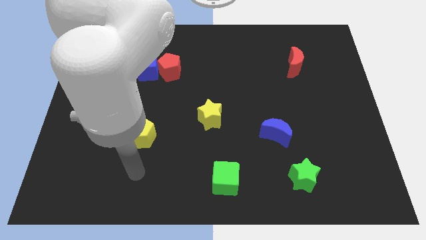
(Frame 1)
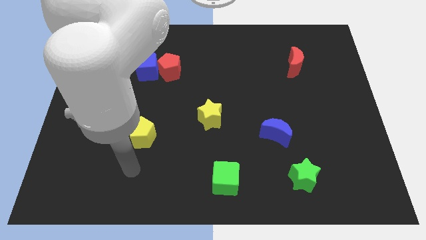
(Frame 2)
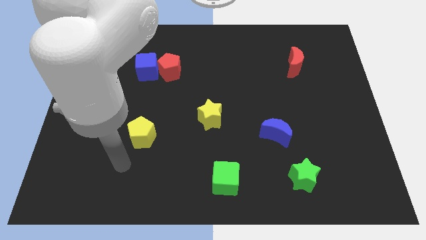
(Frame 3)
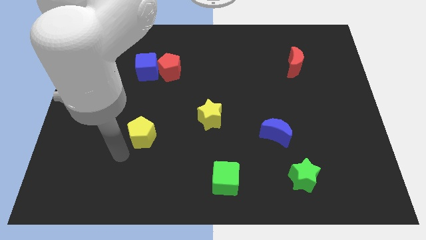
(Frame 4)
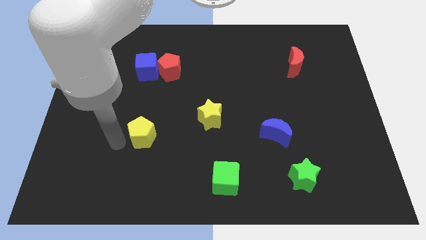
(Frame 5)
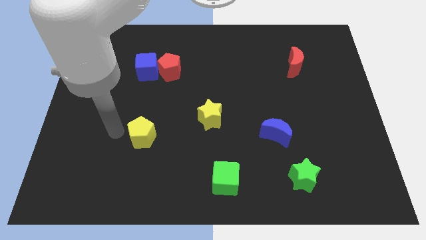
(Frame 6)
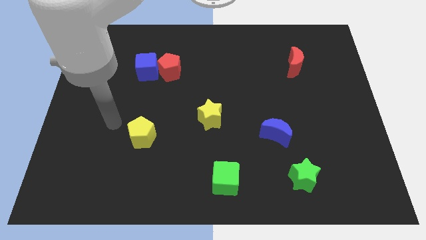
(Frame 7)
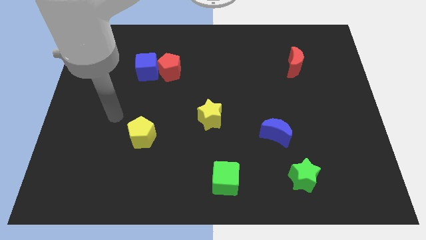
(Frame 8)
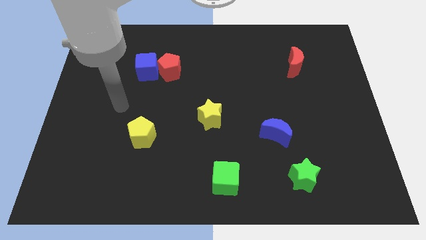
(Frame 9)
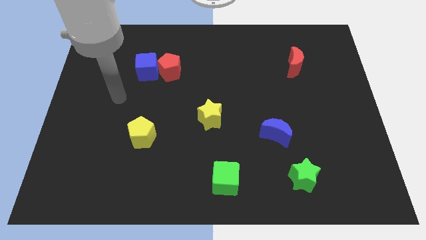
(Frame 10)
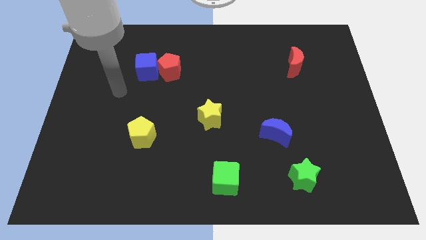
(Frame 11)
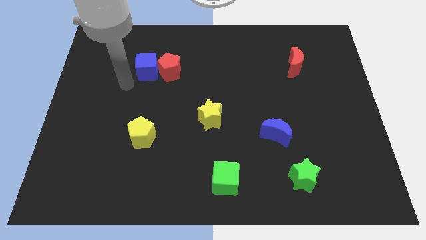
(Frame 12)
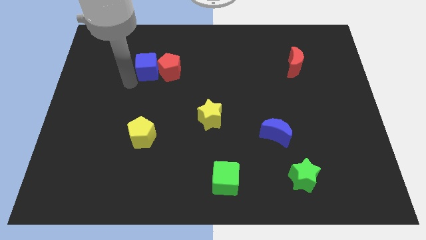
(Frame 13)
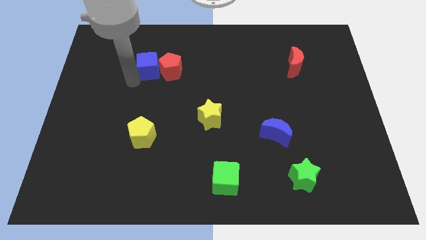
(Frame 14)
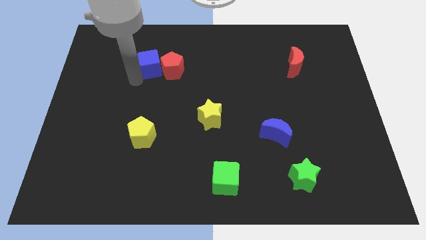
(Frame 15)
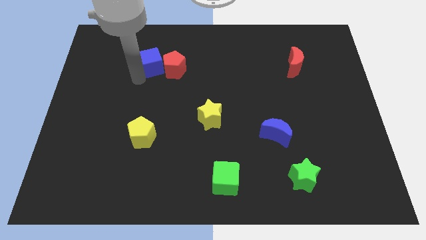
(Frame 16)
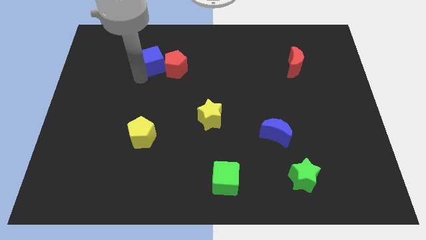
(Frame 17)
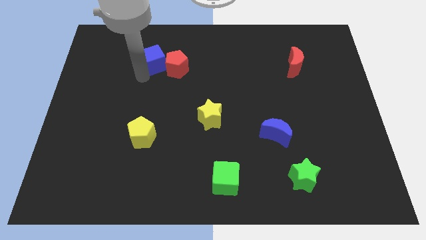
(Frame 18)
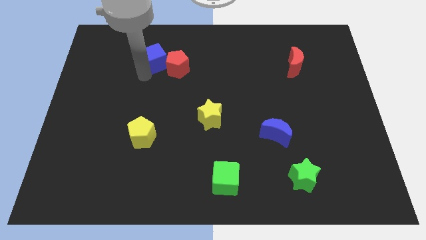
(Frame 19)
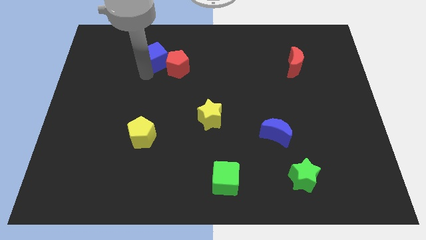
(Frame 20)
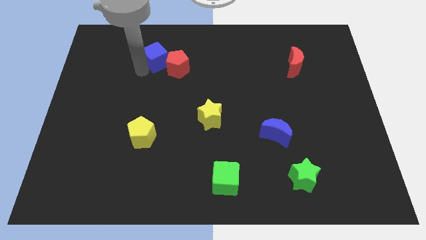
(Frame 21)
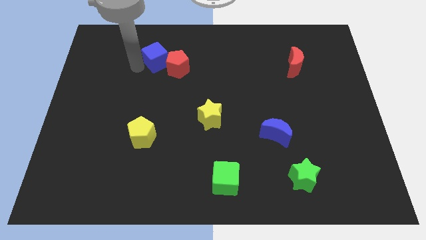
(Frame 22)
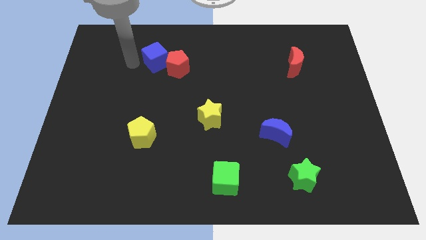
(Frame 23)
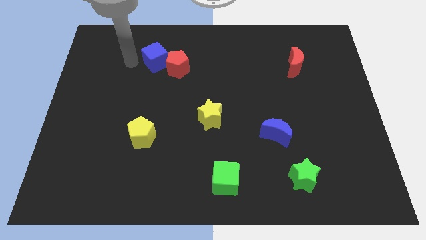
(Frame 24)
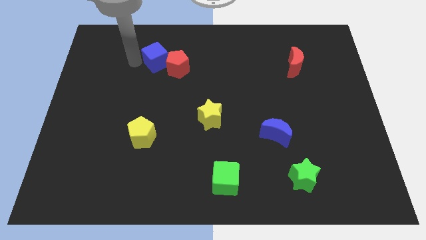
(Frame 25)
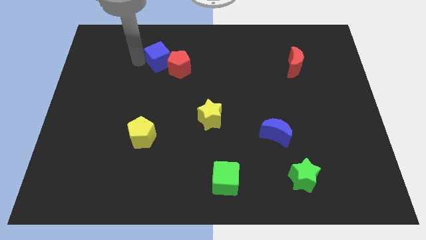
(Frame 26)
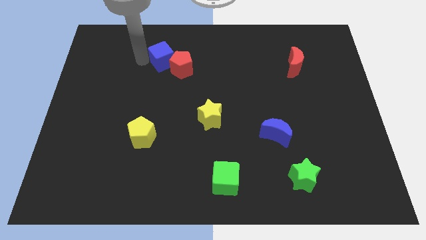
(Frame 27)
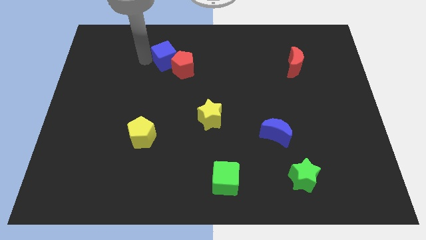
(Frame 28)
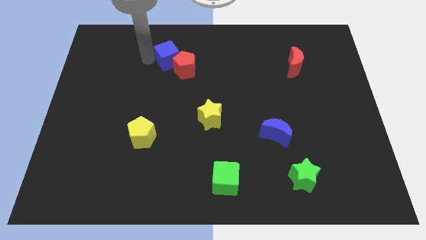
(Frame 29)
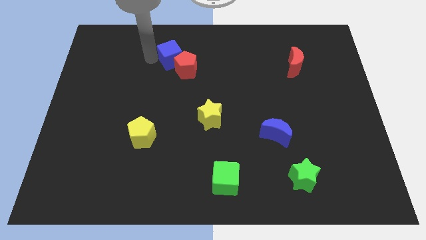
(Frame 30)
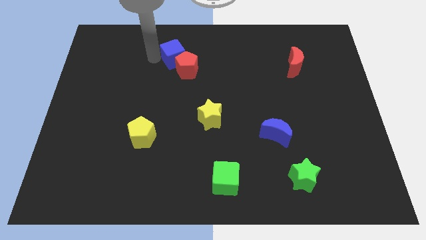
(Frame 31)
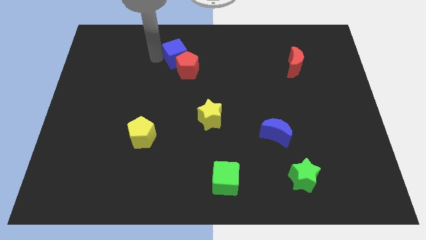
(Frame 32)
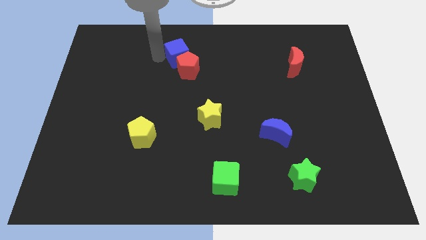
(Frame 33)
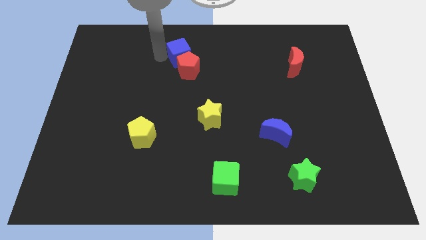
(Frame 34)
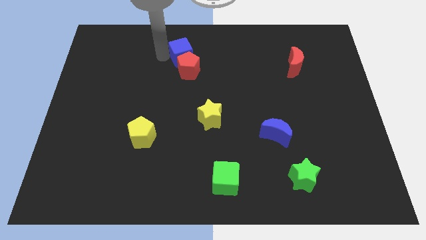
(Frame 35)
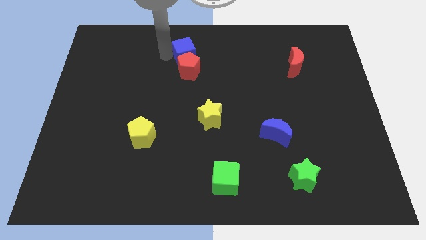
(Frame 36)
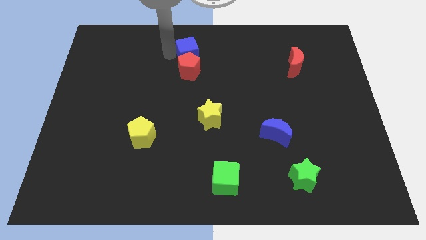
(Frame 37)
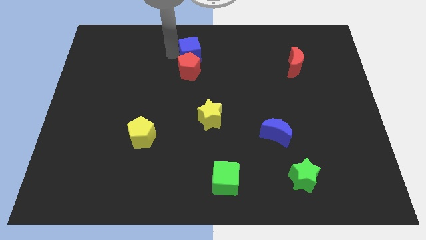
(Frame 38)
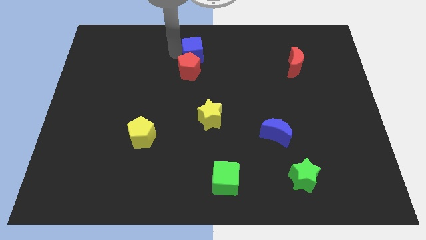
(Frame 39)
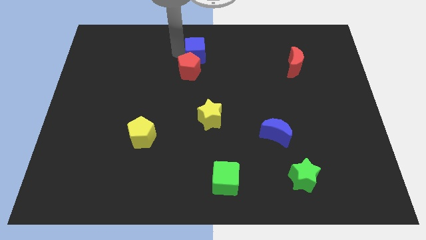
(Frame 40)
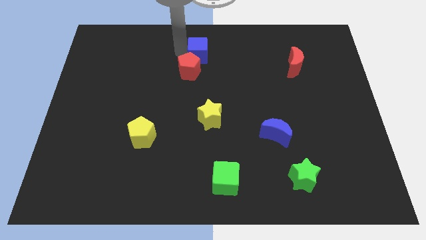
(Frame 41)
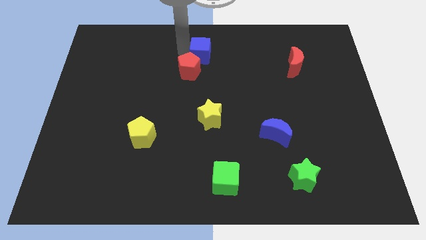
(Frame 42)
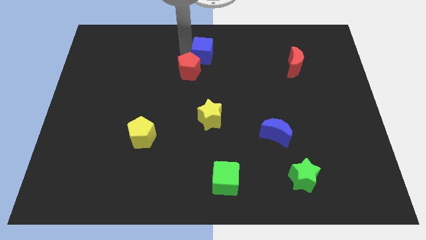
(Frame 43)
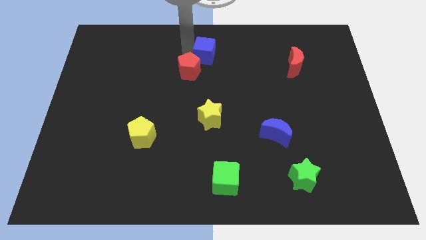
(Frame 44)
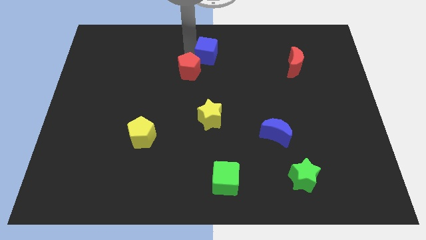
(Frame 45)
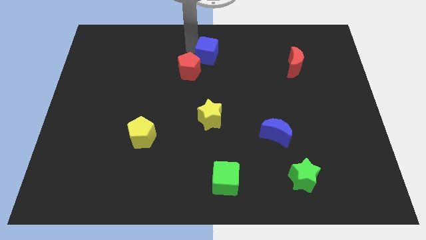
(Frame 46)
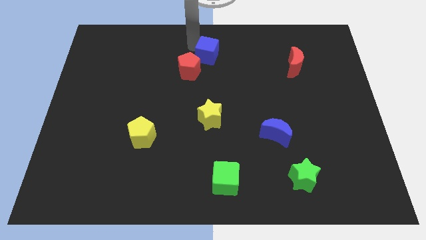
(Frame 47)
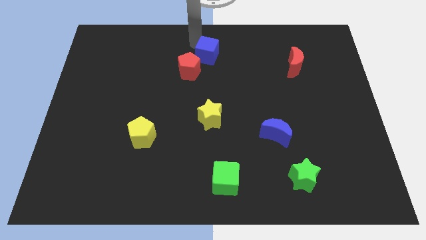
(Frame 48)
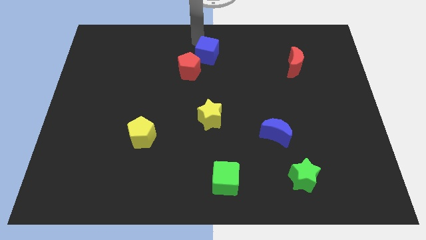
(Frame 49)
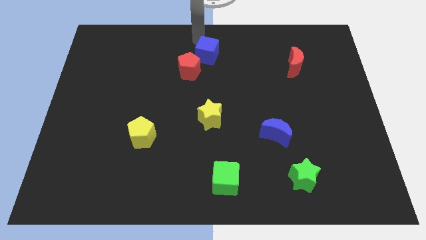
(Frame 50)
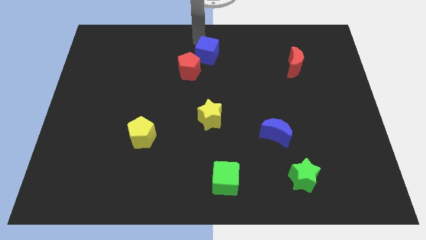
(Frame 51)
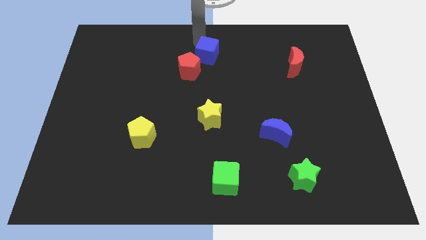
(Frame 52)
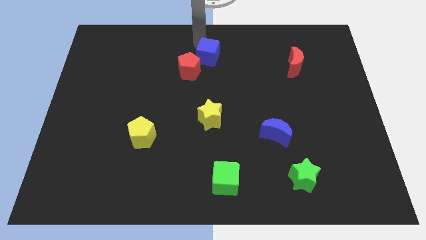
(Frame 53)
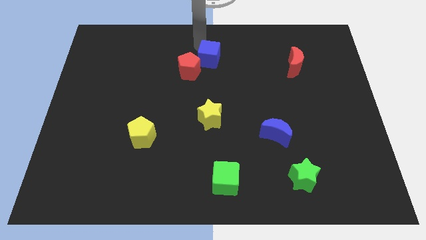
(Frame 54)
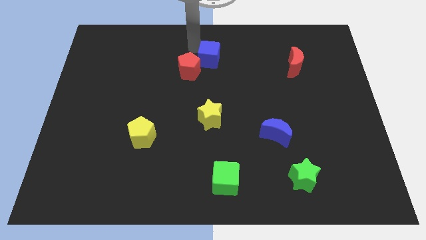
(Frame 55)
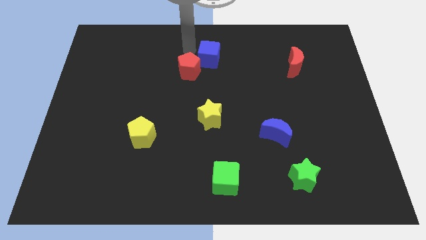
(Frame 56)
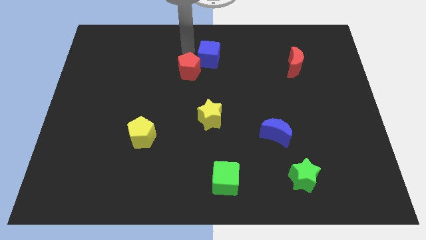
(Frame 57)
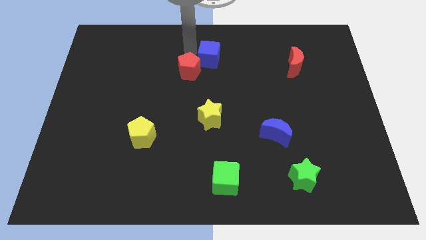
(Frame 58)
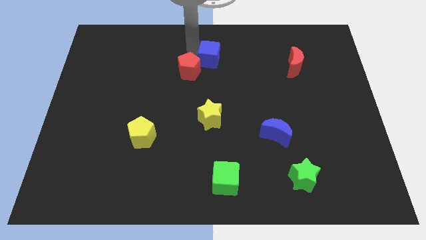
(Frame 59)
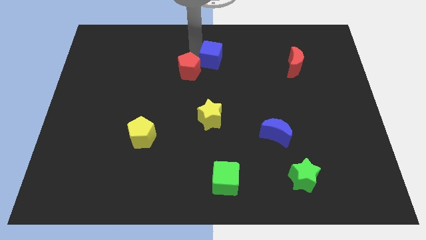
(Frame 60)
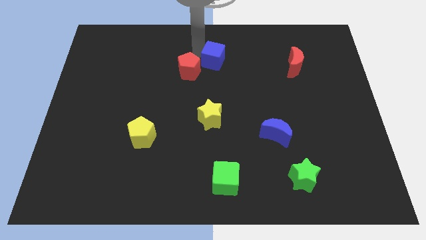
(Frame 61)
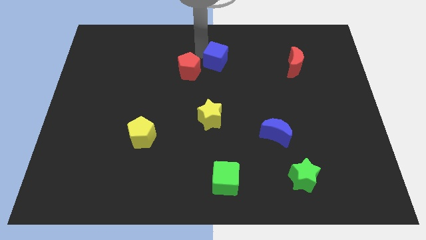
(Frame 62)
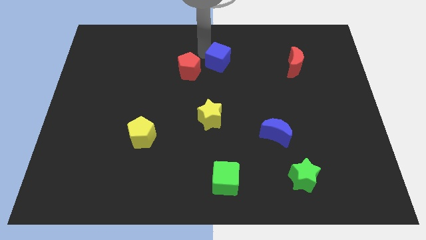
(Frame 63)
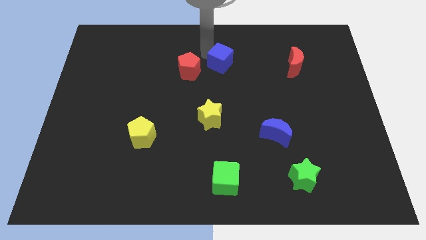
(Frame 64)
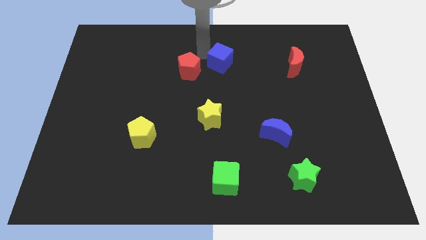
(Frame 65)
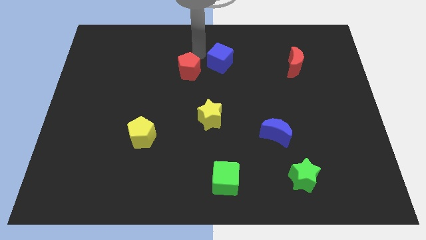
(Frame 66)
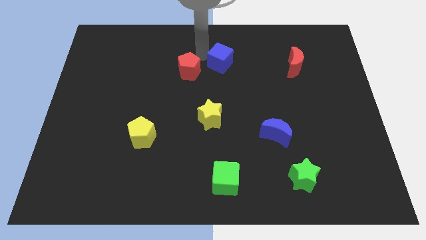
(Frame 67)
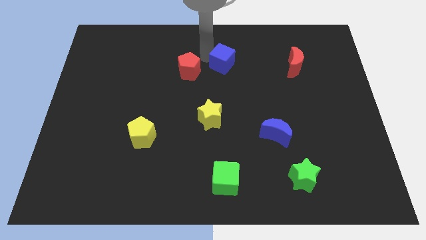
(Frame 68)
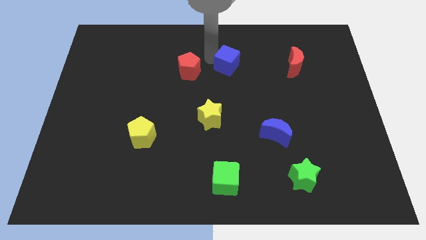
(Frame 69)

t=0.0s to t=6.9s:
slide the blue cube to the right

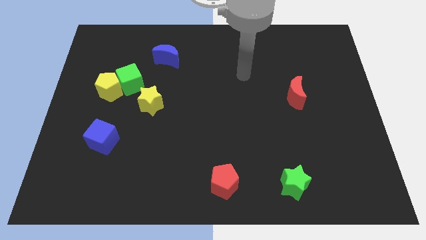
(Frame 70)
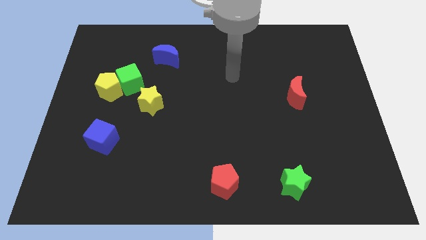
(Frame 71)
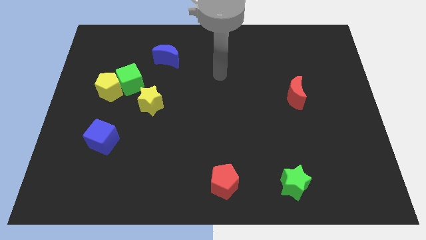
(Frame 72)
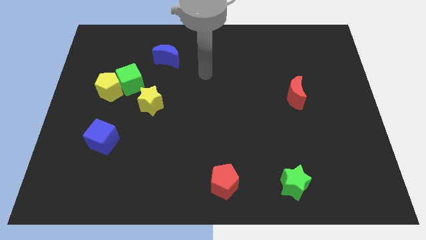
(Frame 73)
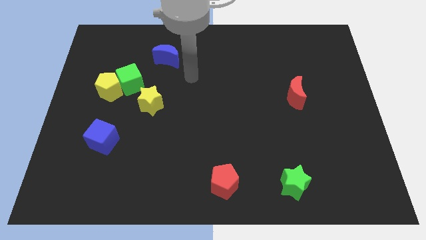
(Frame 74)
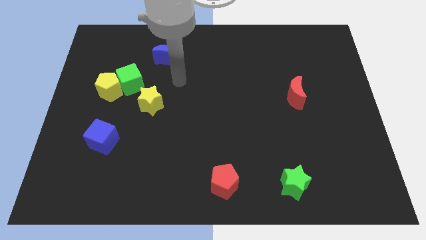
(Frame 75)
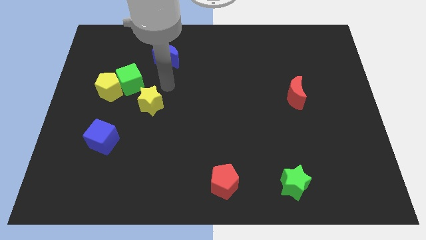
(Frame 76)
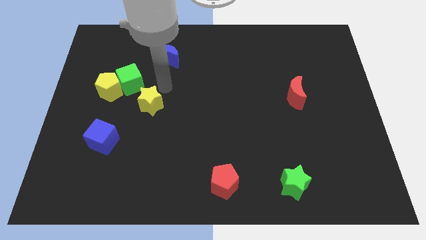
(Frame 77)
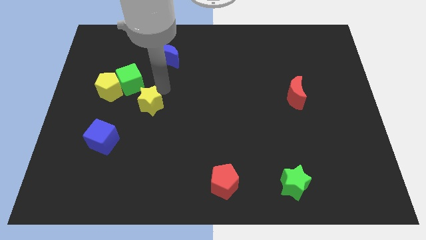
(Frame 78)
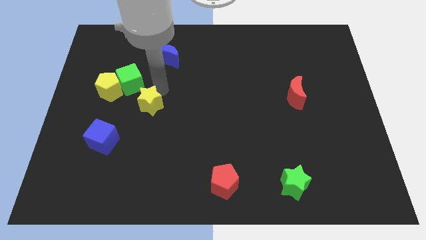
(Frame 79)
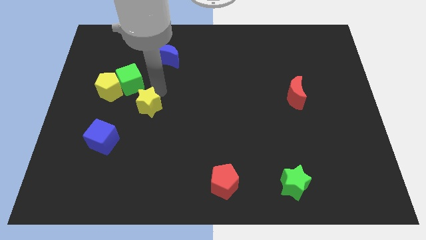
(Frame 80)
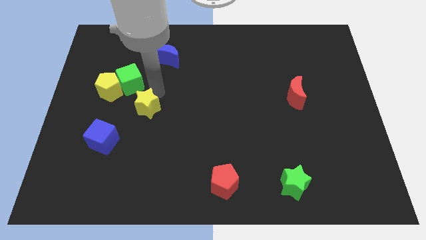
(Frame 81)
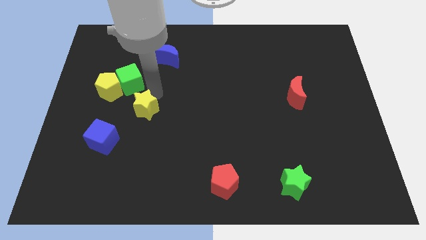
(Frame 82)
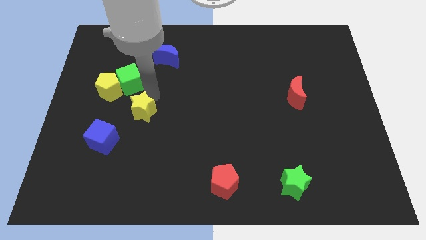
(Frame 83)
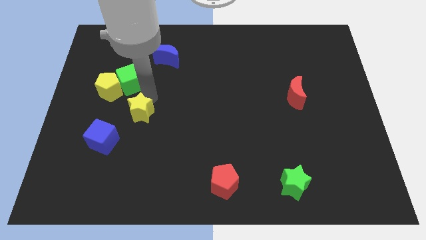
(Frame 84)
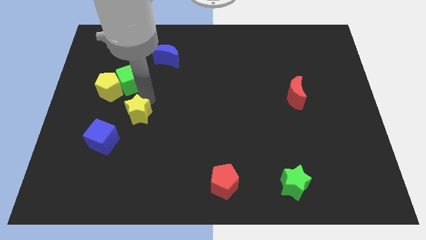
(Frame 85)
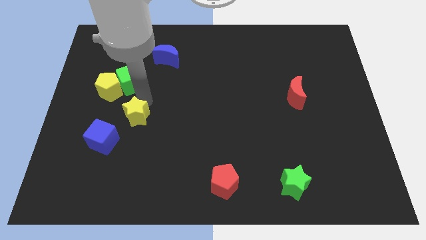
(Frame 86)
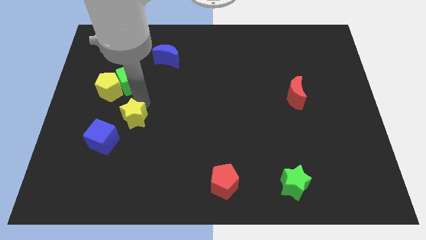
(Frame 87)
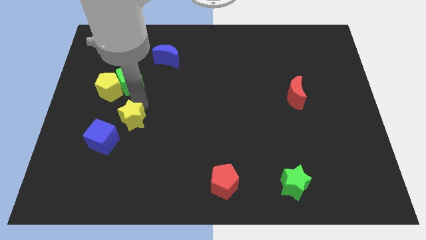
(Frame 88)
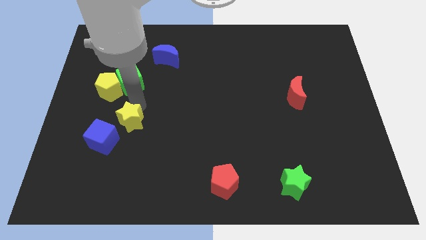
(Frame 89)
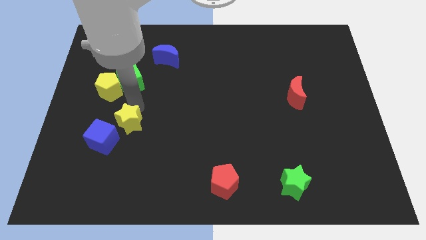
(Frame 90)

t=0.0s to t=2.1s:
move the yellow star slightly down and to the left diagonally
